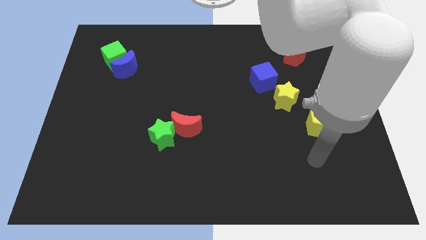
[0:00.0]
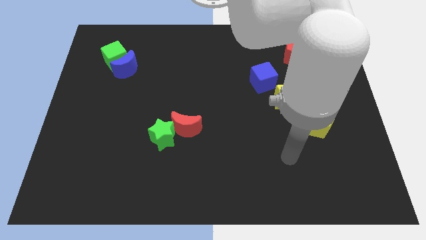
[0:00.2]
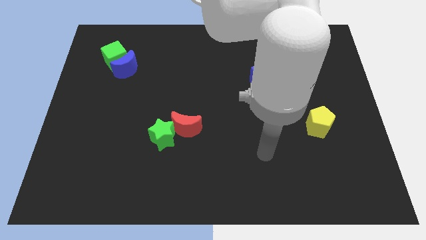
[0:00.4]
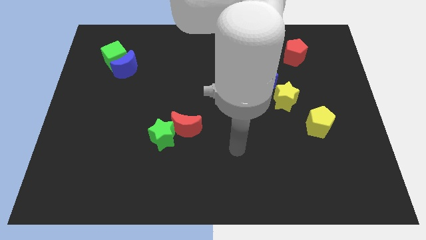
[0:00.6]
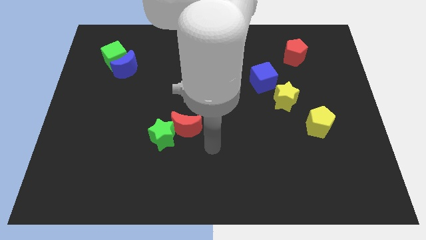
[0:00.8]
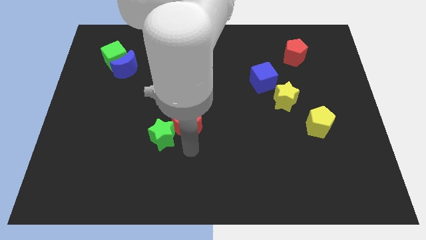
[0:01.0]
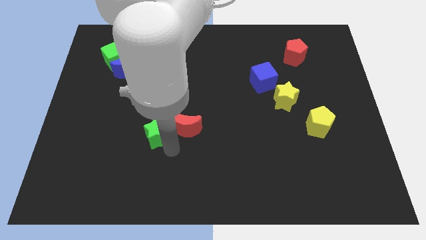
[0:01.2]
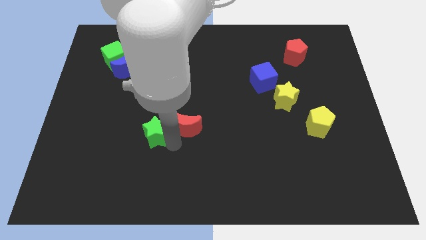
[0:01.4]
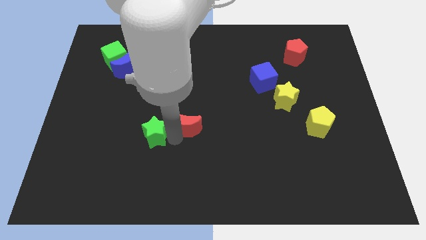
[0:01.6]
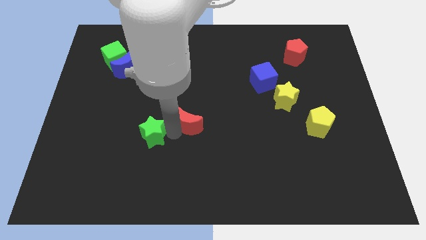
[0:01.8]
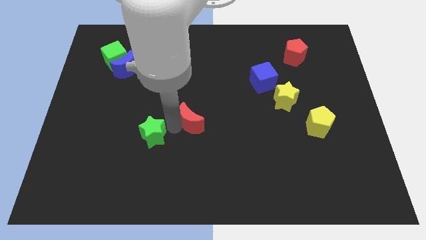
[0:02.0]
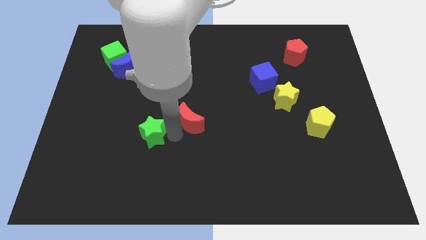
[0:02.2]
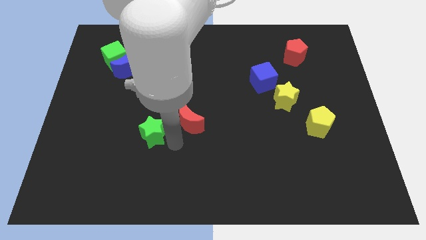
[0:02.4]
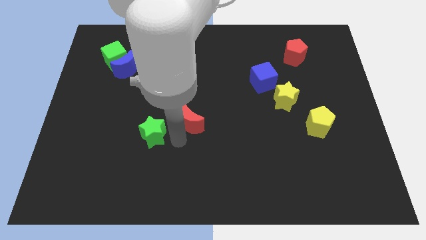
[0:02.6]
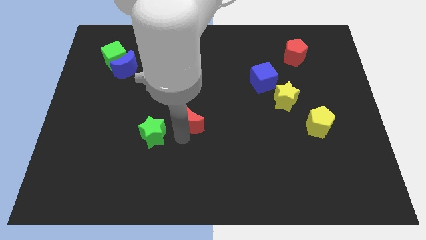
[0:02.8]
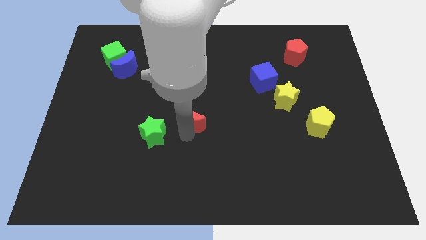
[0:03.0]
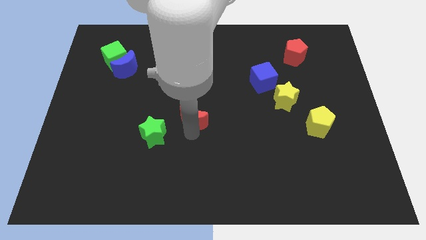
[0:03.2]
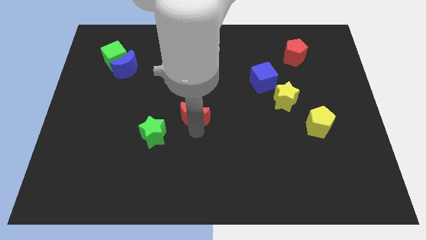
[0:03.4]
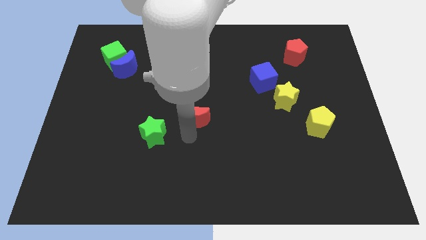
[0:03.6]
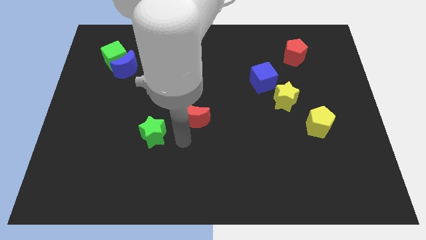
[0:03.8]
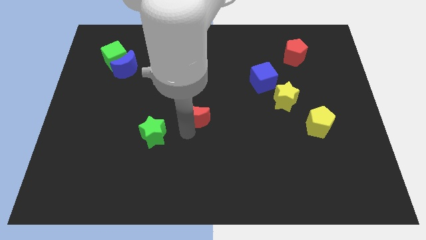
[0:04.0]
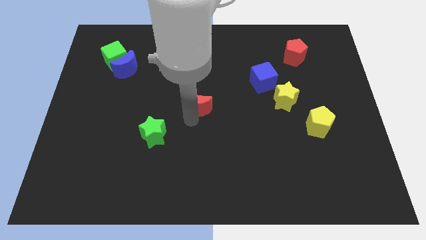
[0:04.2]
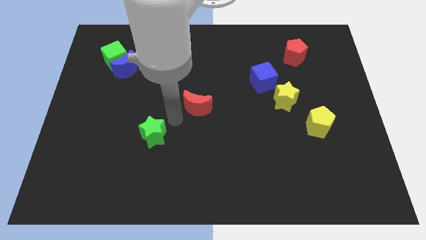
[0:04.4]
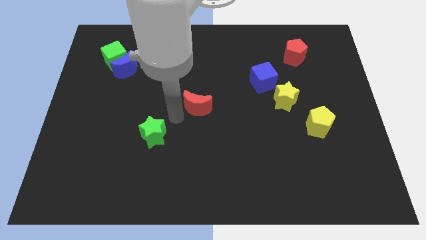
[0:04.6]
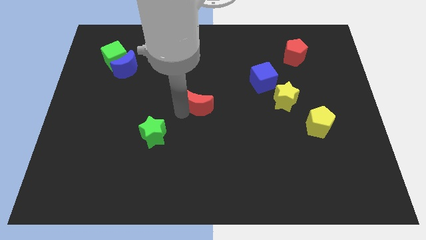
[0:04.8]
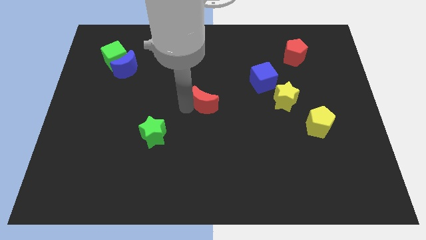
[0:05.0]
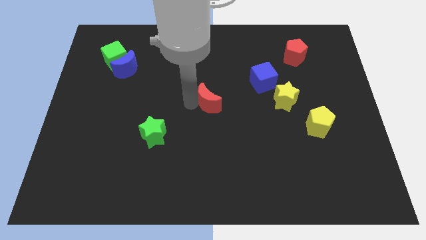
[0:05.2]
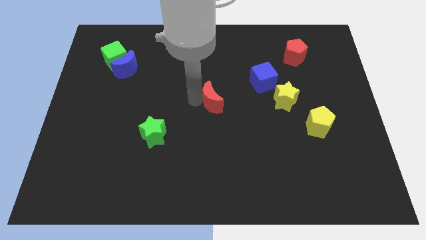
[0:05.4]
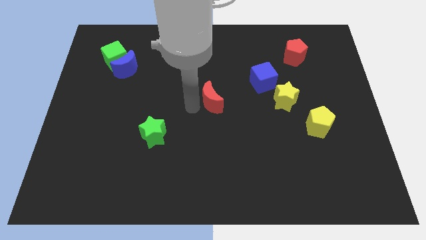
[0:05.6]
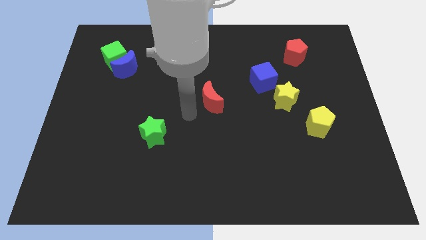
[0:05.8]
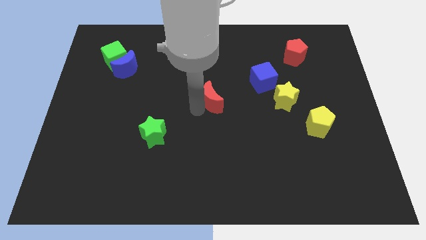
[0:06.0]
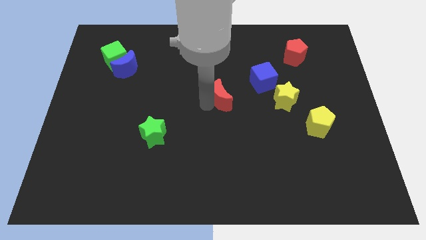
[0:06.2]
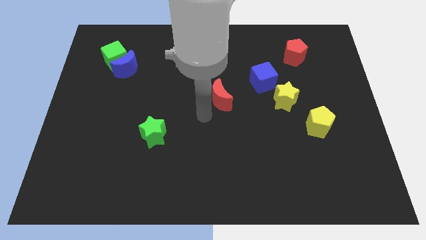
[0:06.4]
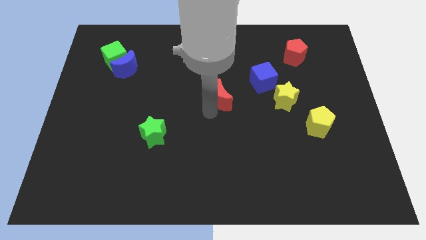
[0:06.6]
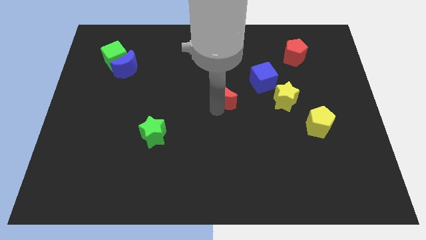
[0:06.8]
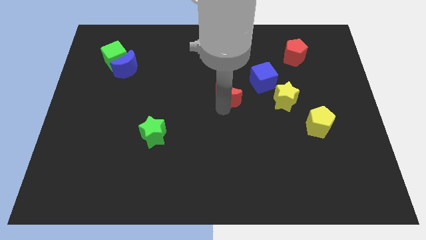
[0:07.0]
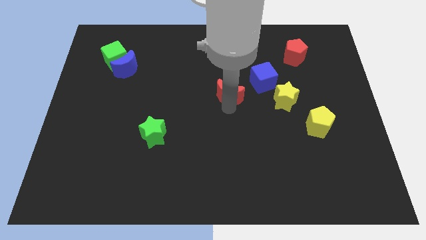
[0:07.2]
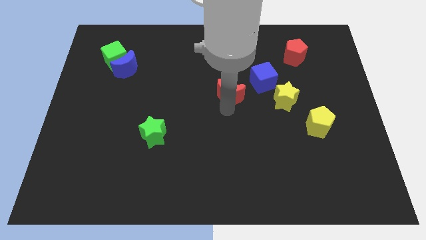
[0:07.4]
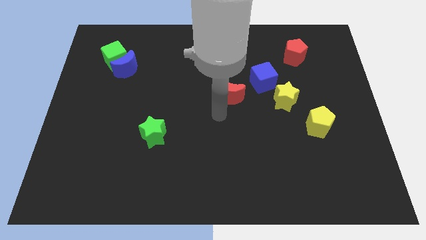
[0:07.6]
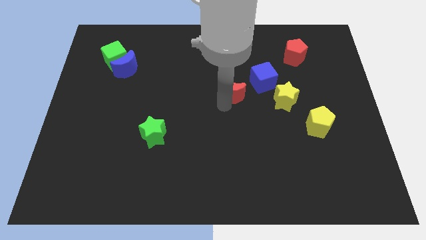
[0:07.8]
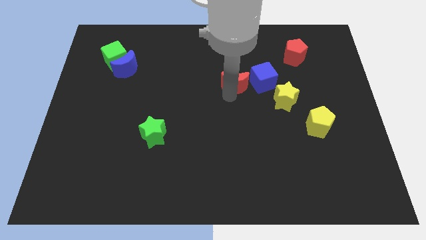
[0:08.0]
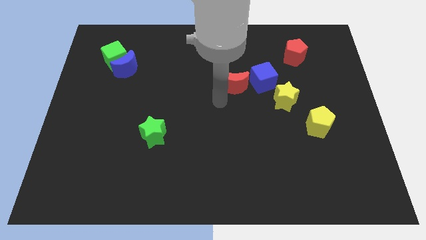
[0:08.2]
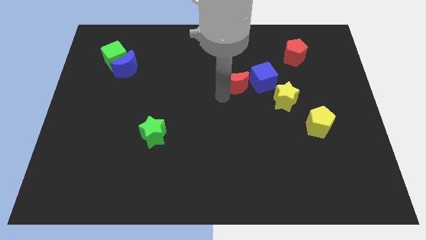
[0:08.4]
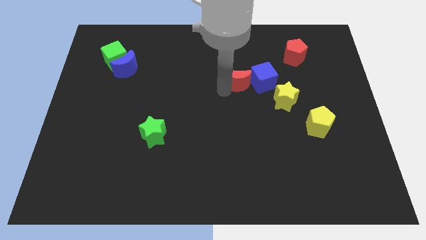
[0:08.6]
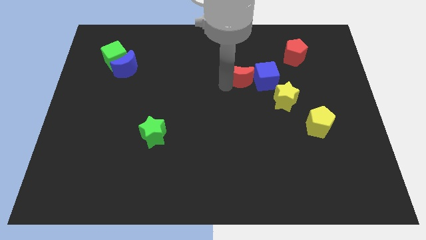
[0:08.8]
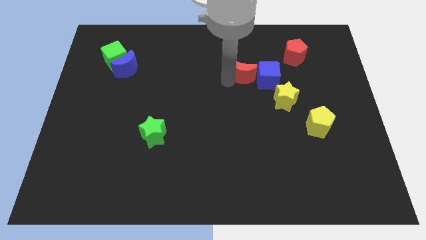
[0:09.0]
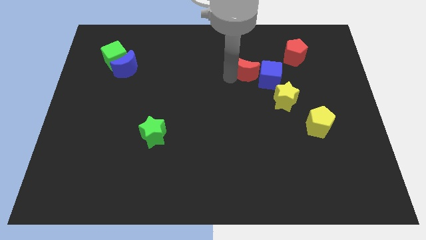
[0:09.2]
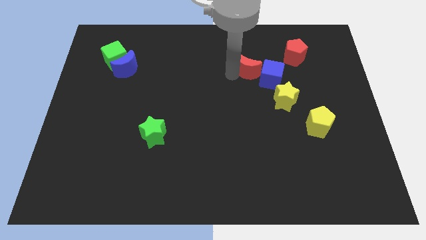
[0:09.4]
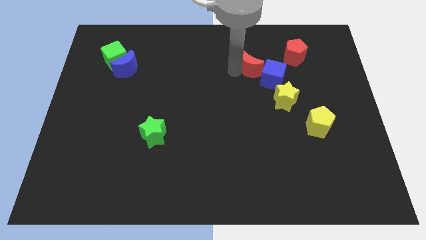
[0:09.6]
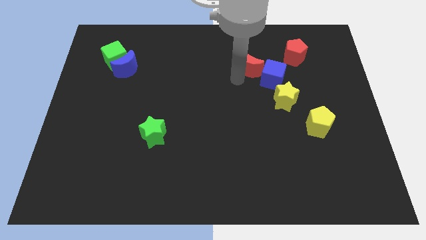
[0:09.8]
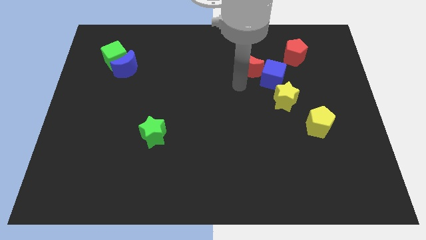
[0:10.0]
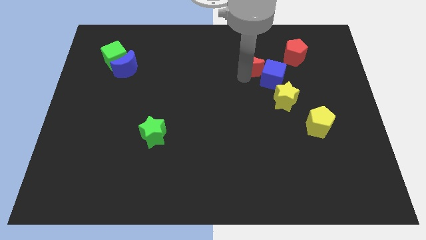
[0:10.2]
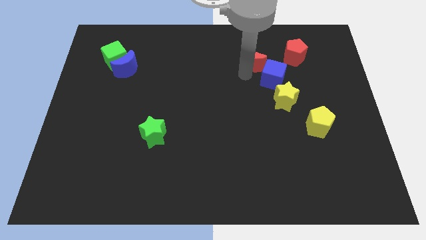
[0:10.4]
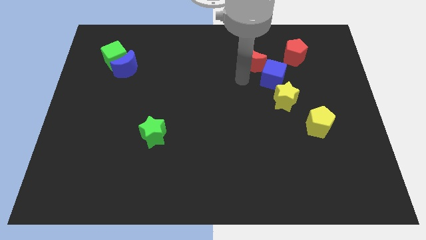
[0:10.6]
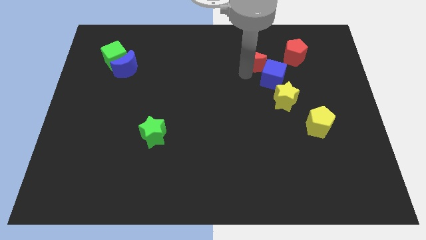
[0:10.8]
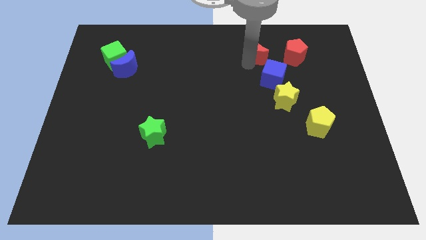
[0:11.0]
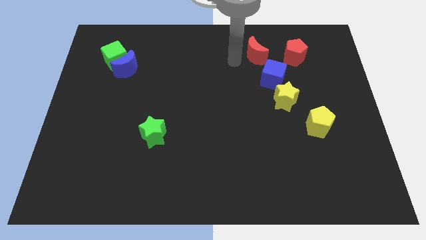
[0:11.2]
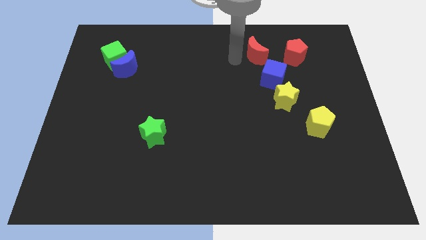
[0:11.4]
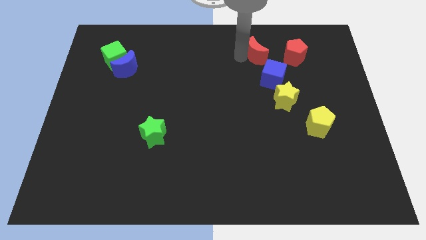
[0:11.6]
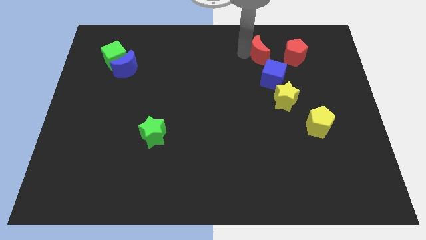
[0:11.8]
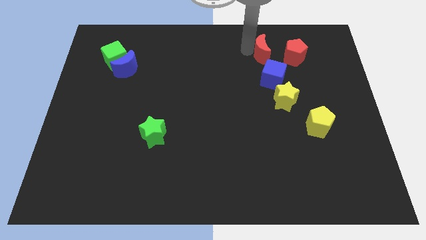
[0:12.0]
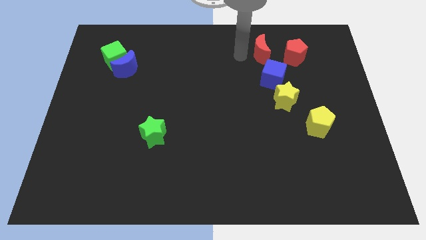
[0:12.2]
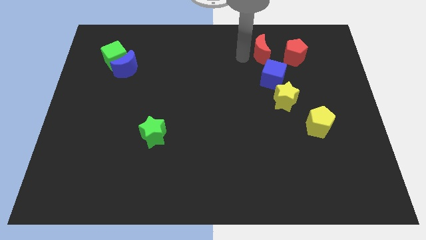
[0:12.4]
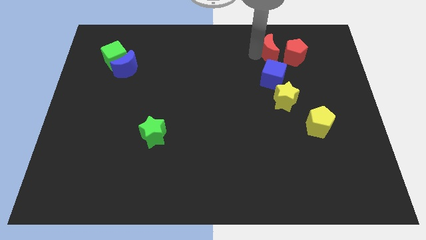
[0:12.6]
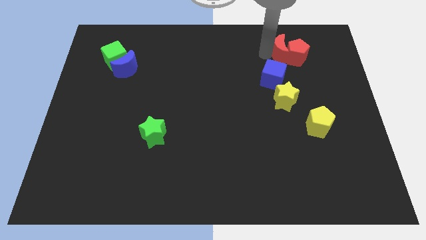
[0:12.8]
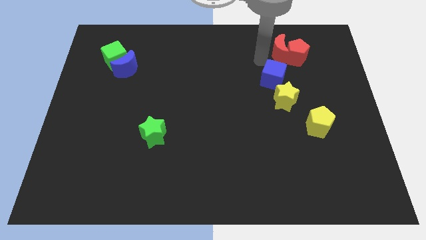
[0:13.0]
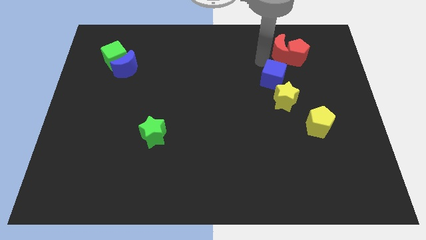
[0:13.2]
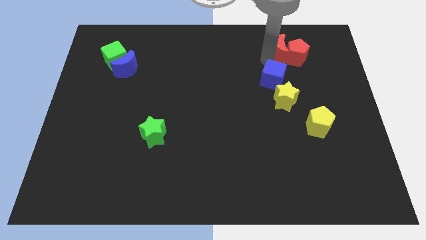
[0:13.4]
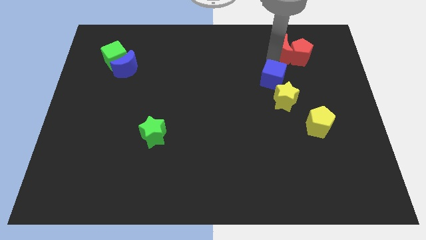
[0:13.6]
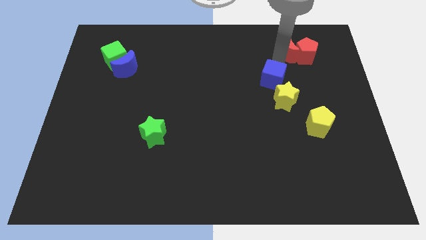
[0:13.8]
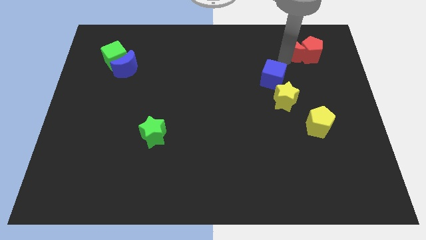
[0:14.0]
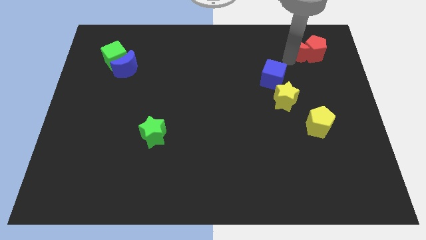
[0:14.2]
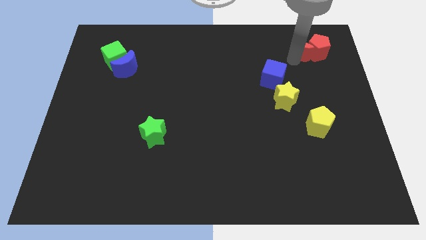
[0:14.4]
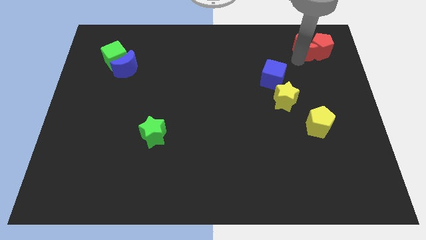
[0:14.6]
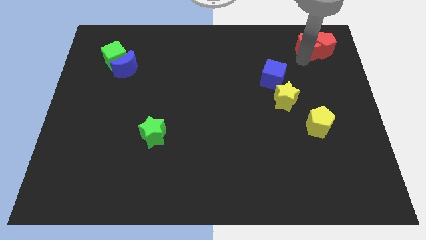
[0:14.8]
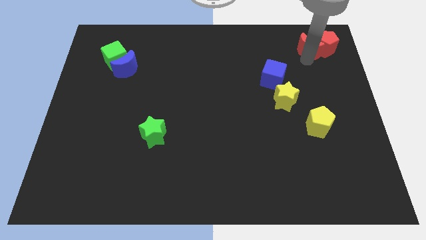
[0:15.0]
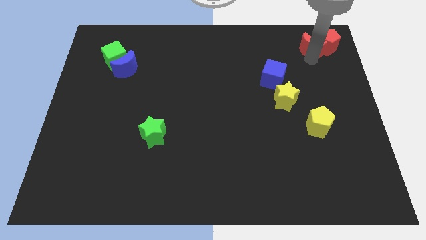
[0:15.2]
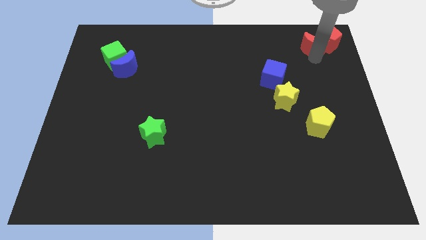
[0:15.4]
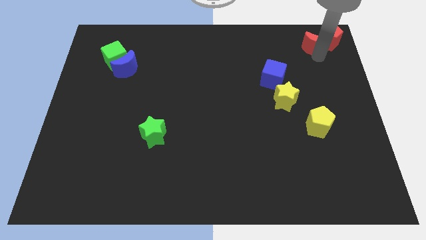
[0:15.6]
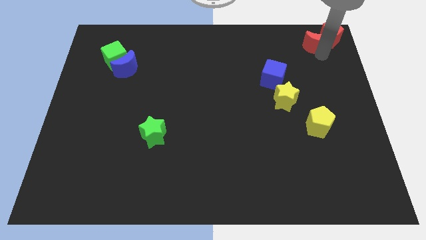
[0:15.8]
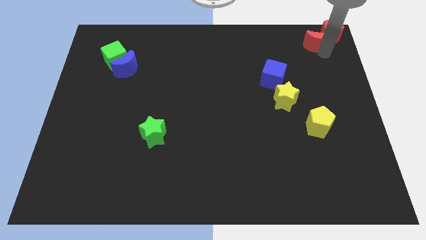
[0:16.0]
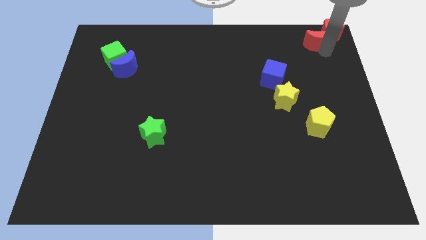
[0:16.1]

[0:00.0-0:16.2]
move the red moon to the top right
